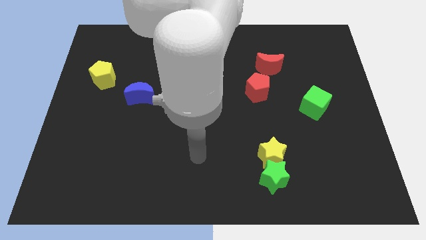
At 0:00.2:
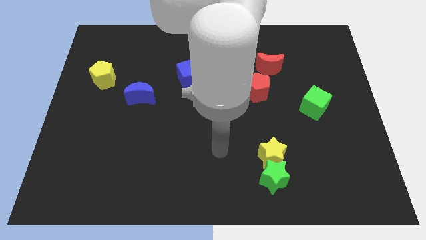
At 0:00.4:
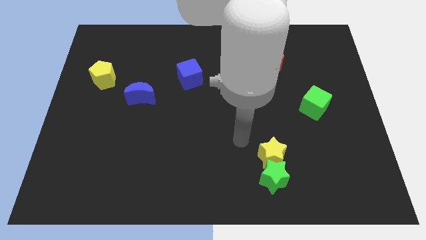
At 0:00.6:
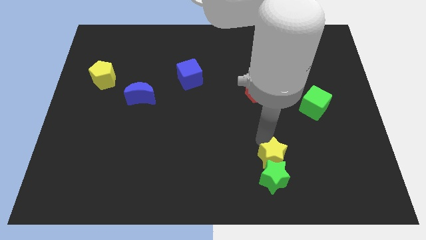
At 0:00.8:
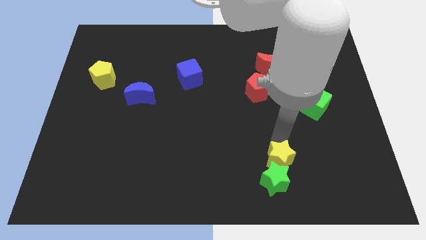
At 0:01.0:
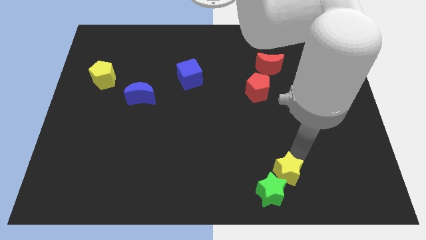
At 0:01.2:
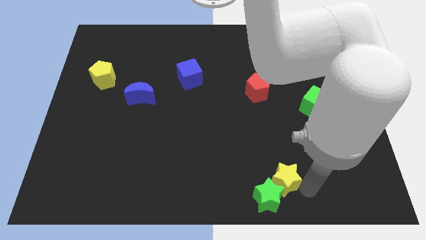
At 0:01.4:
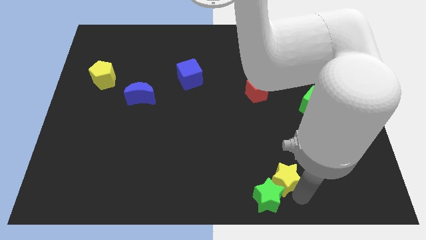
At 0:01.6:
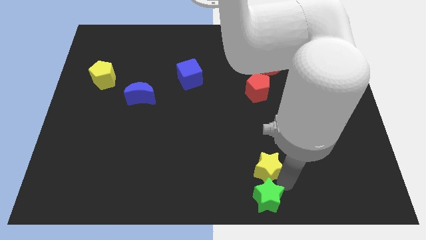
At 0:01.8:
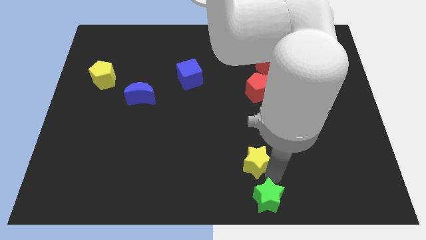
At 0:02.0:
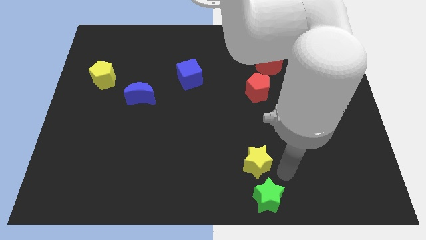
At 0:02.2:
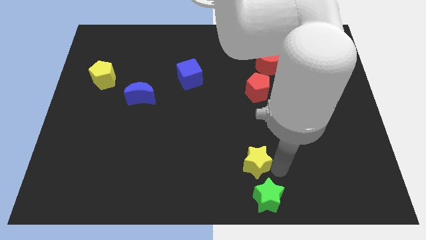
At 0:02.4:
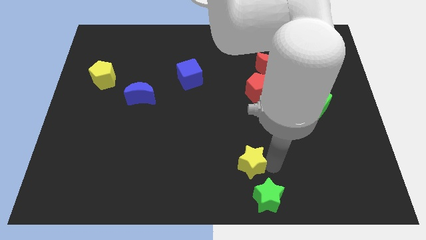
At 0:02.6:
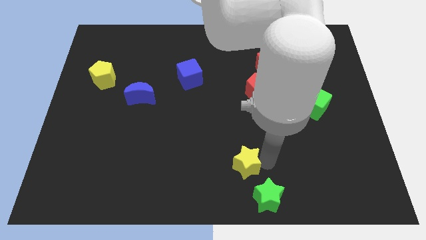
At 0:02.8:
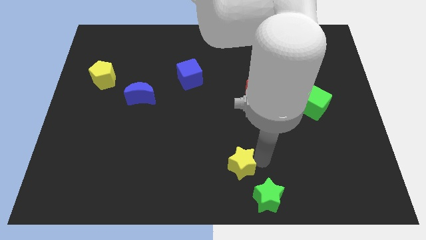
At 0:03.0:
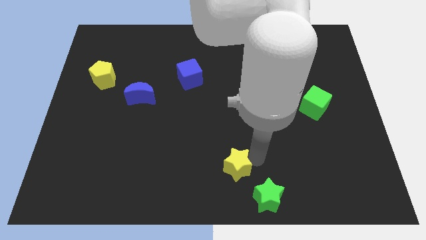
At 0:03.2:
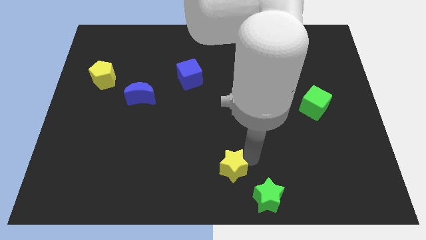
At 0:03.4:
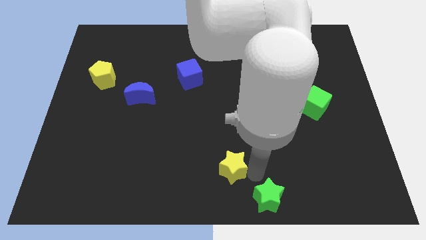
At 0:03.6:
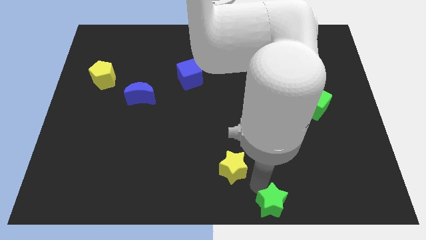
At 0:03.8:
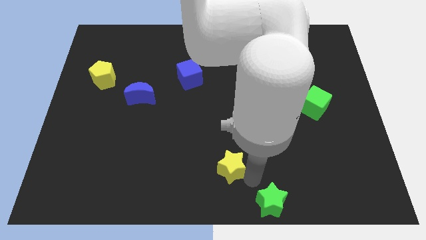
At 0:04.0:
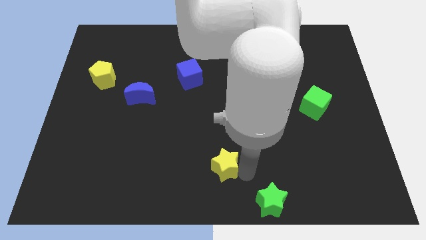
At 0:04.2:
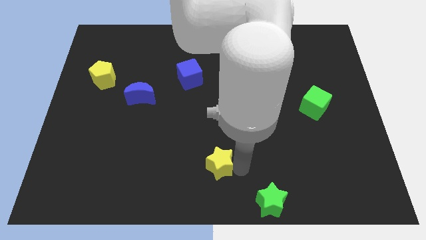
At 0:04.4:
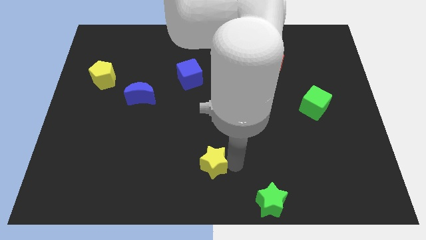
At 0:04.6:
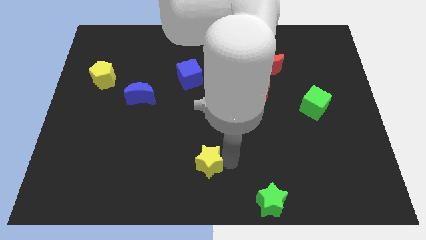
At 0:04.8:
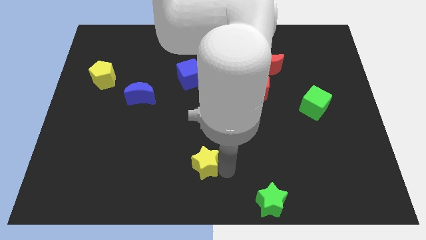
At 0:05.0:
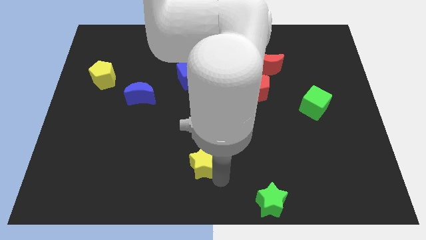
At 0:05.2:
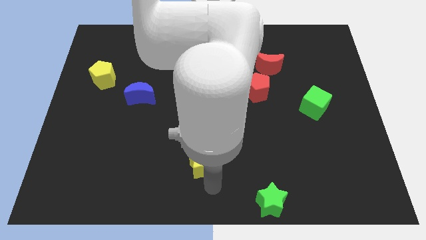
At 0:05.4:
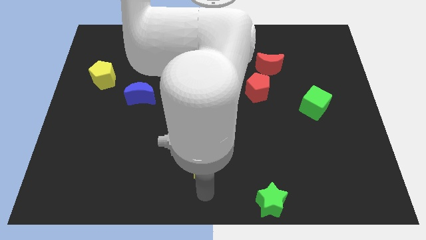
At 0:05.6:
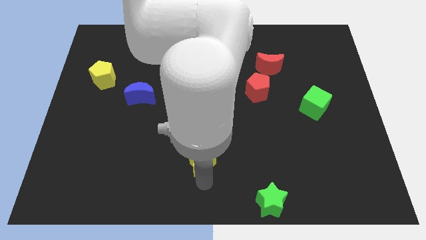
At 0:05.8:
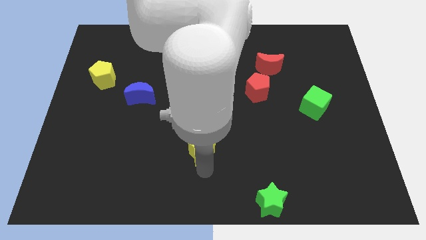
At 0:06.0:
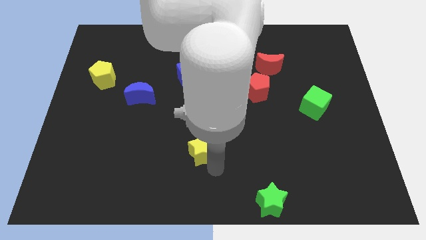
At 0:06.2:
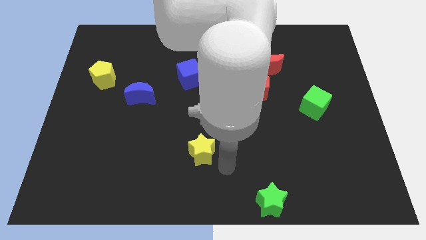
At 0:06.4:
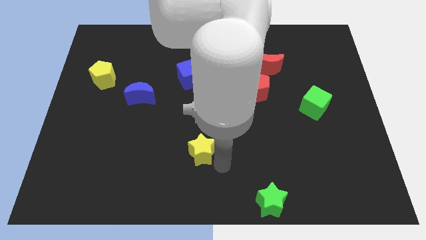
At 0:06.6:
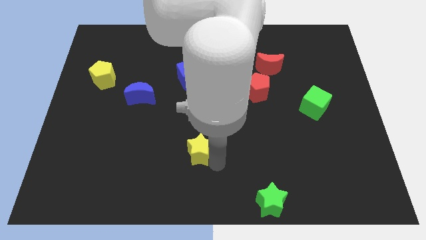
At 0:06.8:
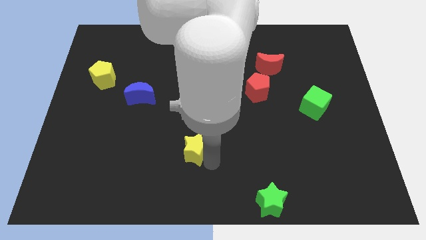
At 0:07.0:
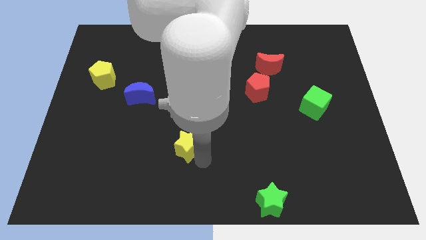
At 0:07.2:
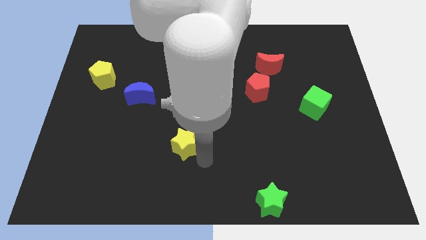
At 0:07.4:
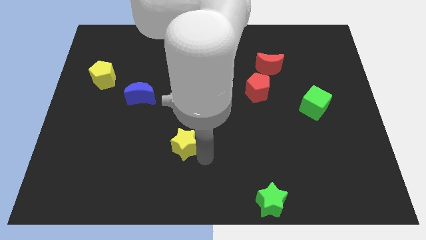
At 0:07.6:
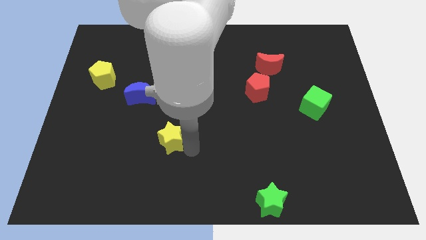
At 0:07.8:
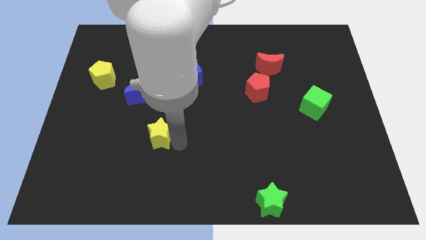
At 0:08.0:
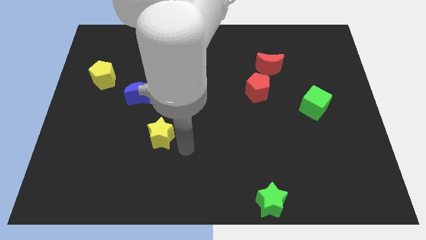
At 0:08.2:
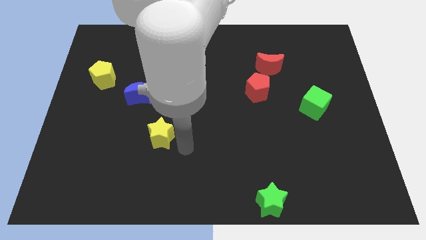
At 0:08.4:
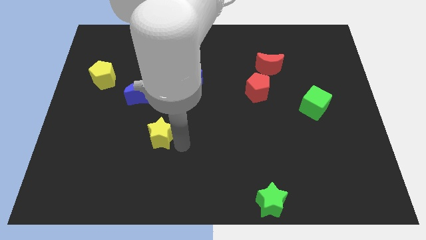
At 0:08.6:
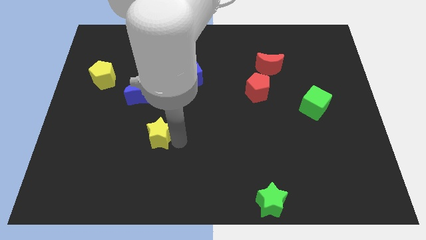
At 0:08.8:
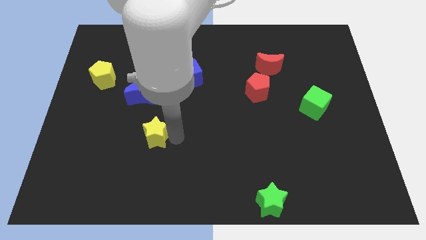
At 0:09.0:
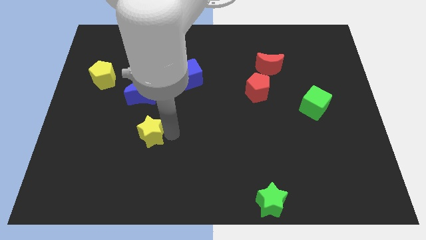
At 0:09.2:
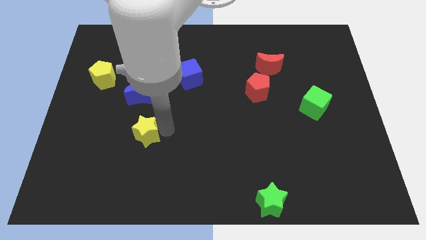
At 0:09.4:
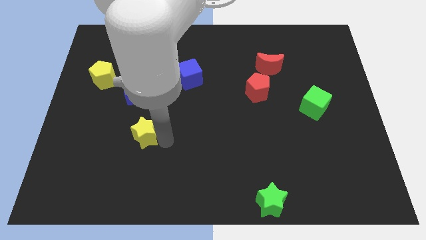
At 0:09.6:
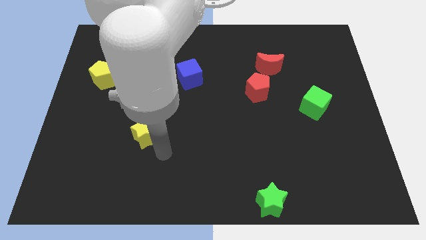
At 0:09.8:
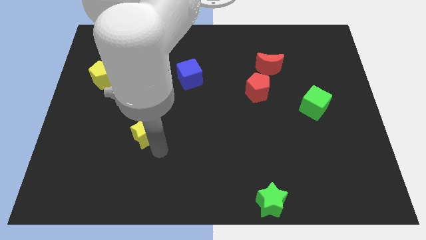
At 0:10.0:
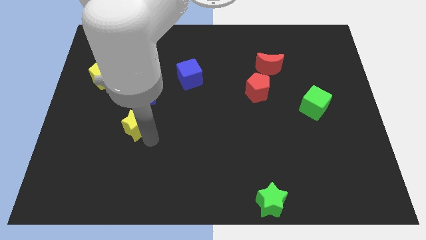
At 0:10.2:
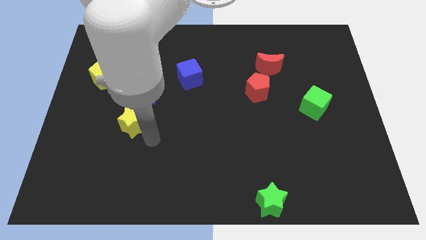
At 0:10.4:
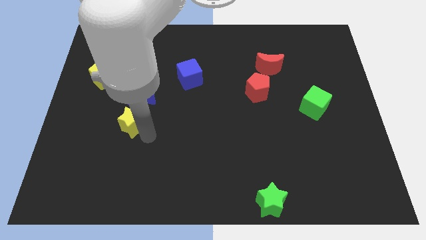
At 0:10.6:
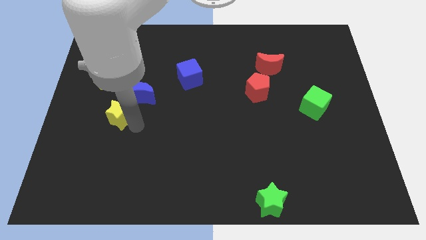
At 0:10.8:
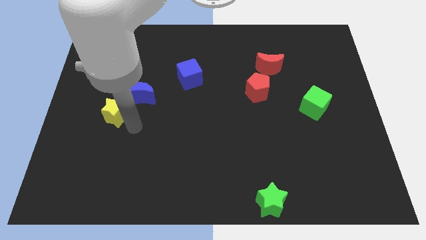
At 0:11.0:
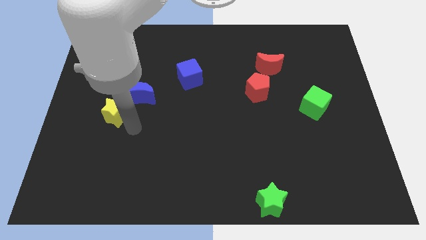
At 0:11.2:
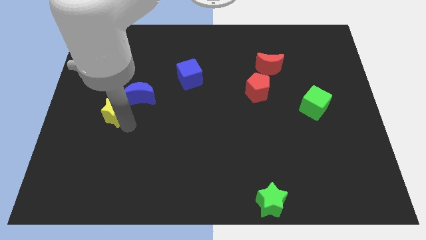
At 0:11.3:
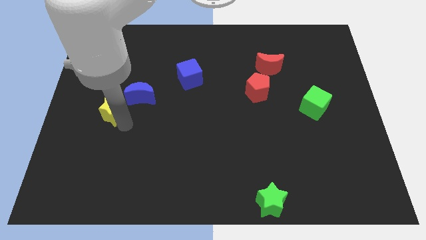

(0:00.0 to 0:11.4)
move the yellow star left of the blue moon

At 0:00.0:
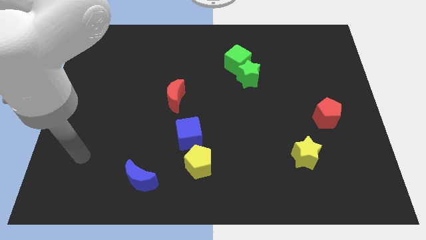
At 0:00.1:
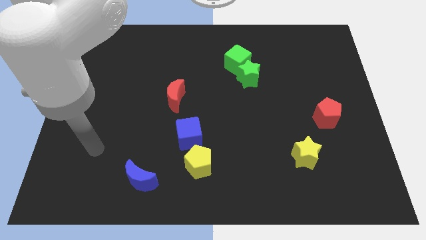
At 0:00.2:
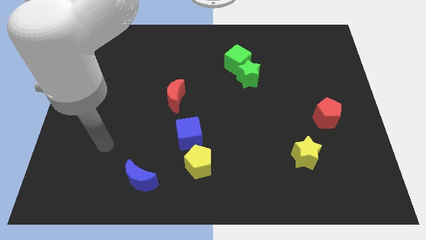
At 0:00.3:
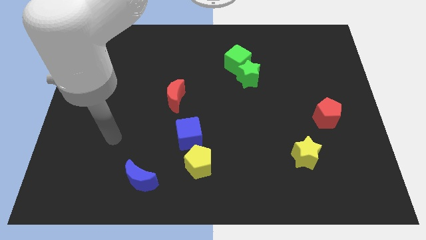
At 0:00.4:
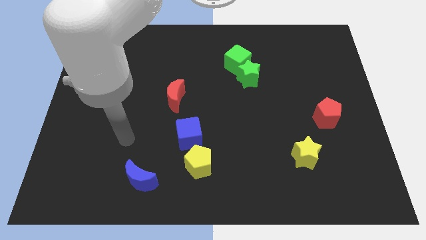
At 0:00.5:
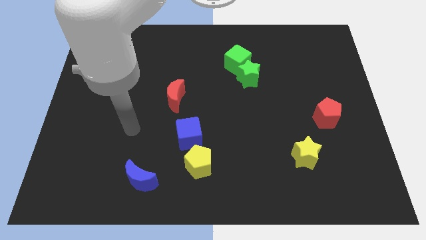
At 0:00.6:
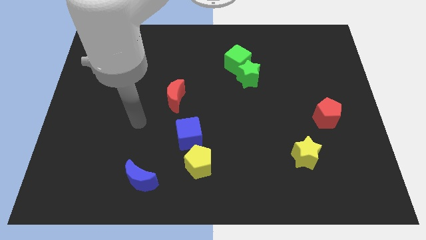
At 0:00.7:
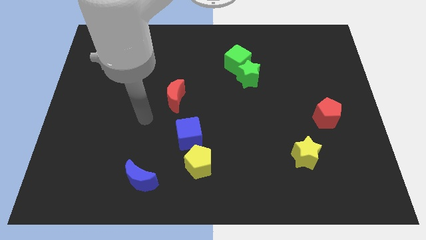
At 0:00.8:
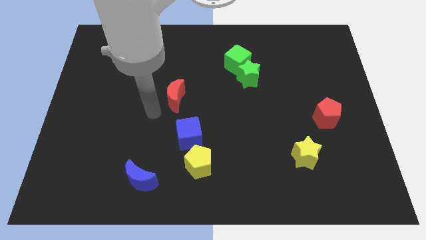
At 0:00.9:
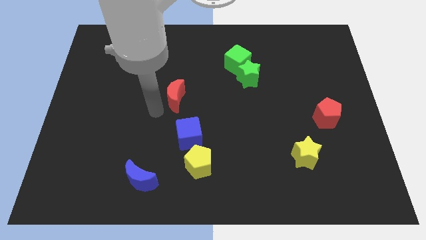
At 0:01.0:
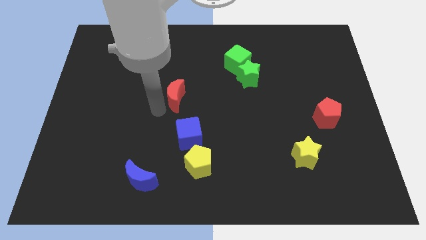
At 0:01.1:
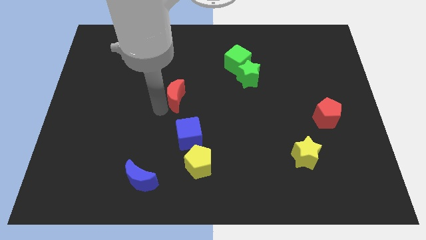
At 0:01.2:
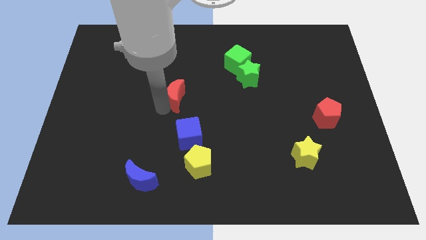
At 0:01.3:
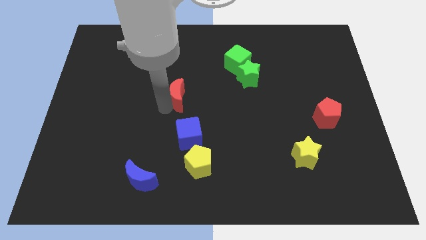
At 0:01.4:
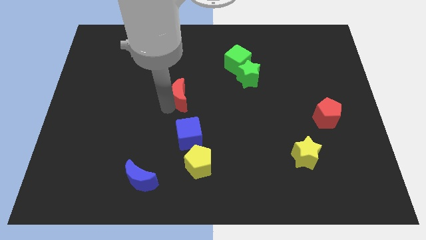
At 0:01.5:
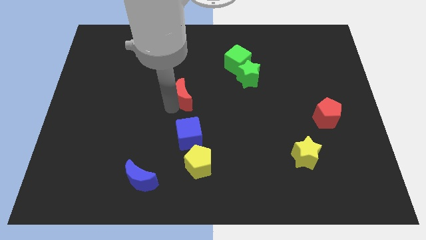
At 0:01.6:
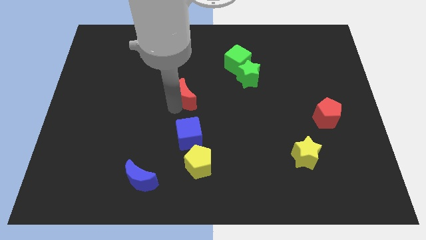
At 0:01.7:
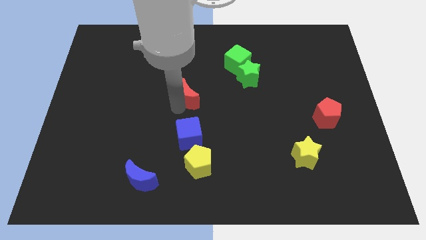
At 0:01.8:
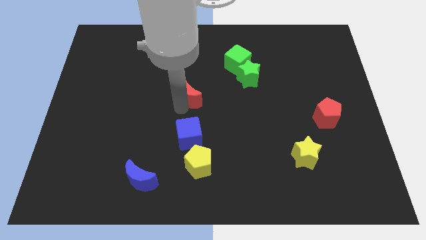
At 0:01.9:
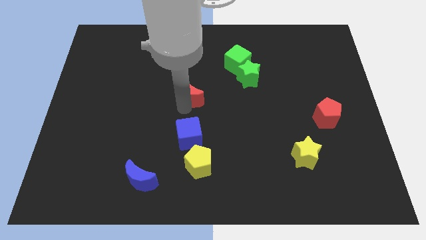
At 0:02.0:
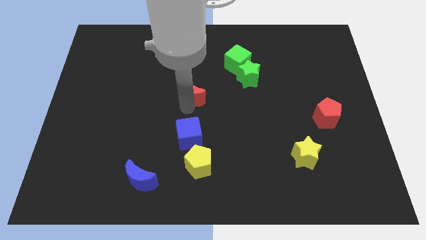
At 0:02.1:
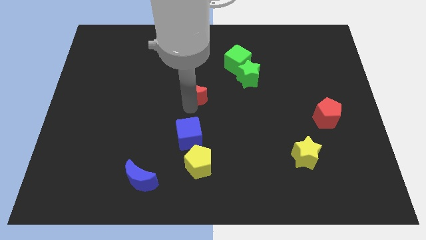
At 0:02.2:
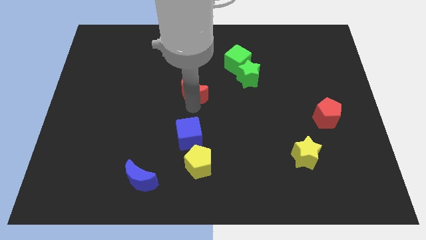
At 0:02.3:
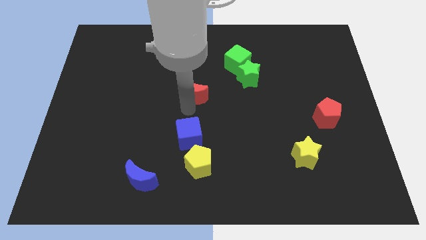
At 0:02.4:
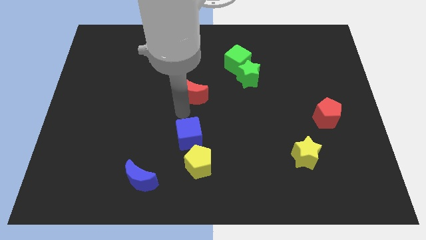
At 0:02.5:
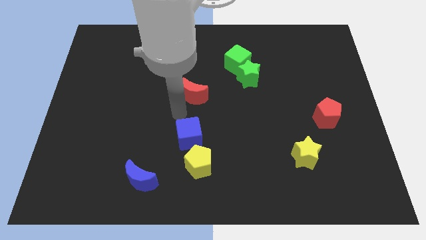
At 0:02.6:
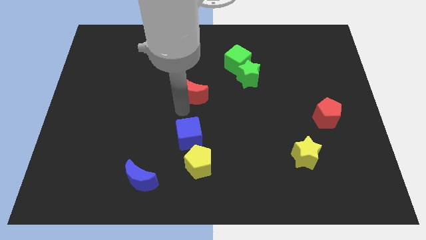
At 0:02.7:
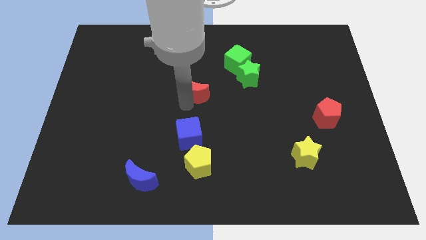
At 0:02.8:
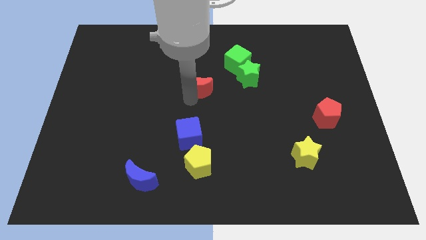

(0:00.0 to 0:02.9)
push the red moon just left of the green star
